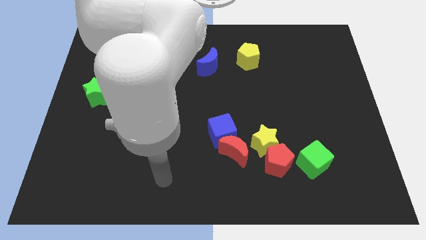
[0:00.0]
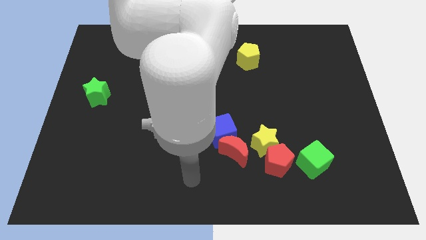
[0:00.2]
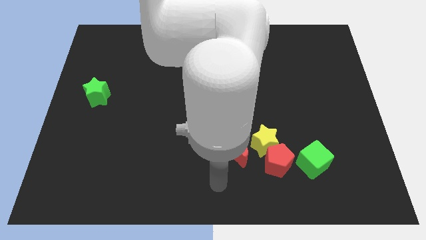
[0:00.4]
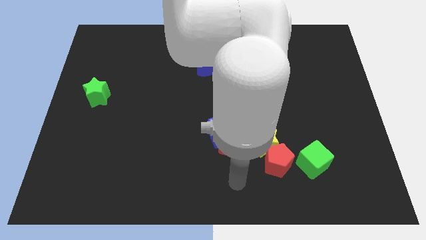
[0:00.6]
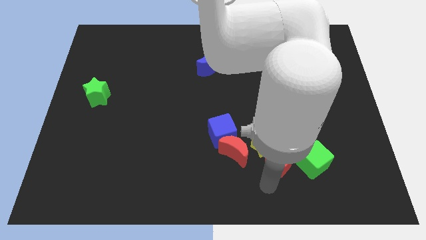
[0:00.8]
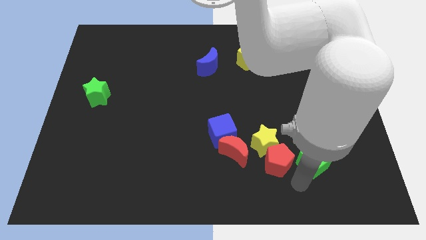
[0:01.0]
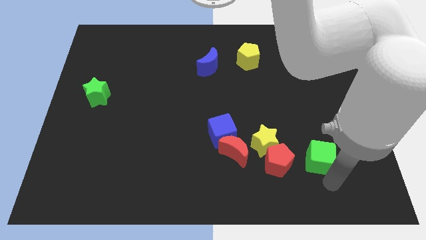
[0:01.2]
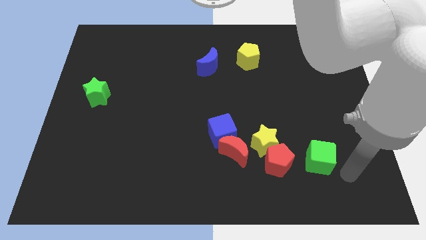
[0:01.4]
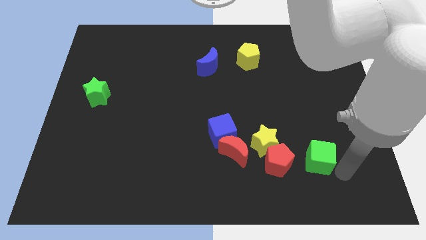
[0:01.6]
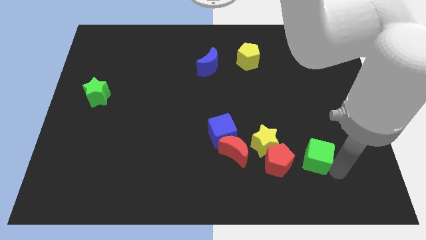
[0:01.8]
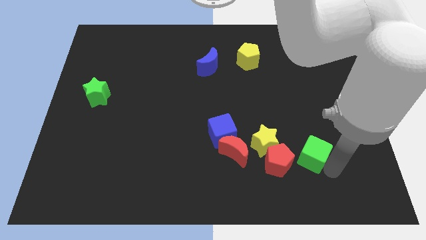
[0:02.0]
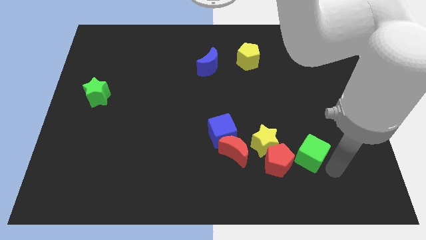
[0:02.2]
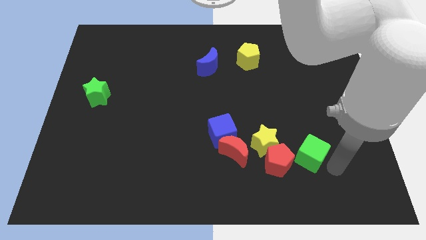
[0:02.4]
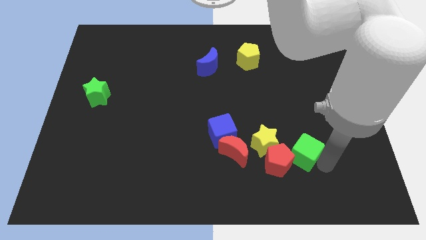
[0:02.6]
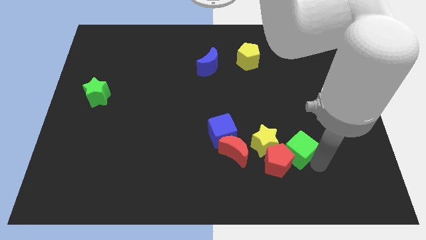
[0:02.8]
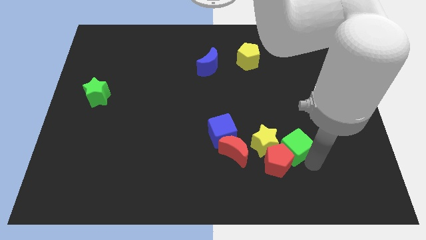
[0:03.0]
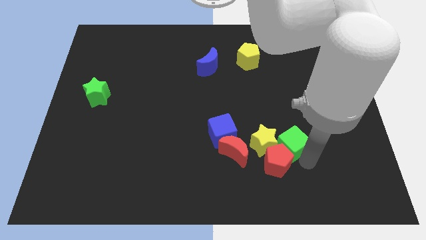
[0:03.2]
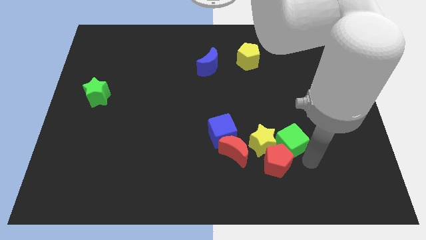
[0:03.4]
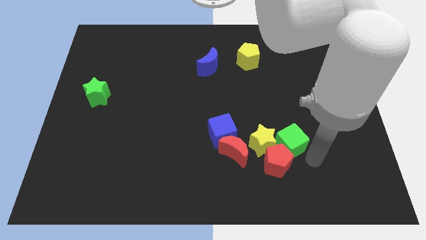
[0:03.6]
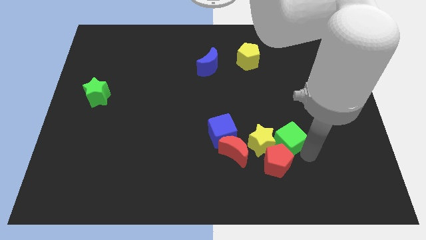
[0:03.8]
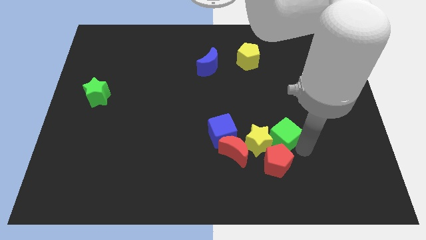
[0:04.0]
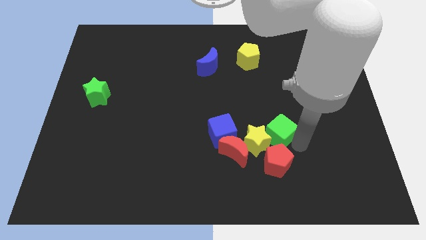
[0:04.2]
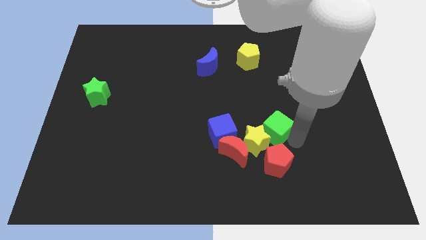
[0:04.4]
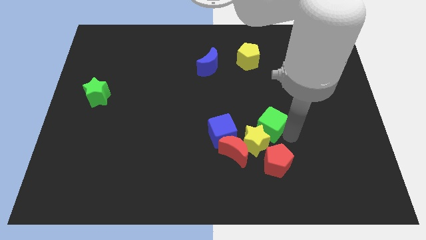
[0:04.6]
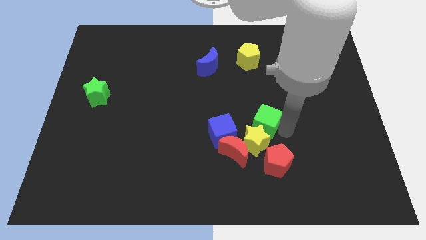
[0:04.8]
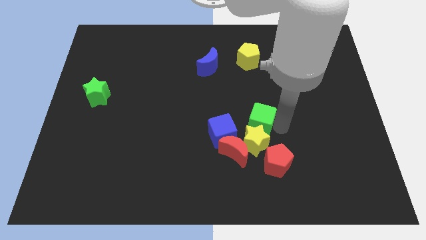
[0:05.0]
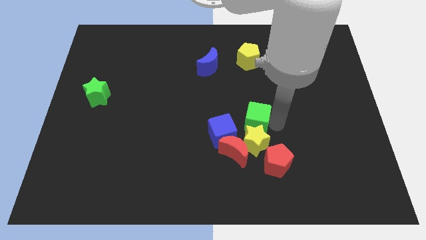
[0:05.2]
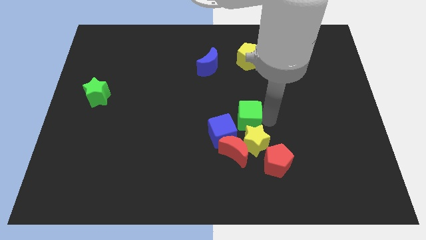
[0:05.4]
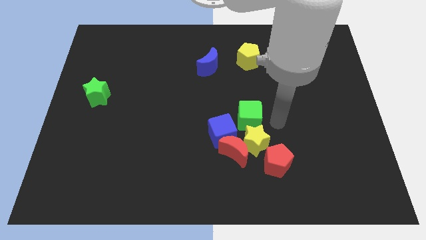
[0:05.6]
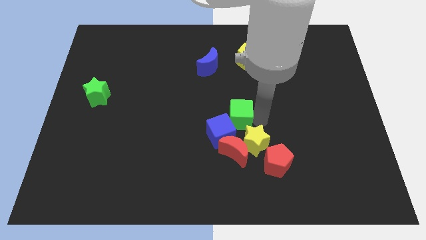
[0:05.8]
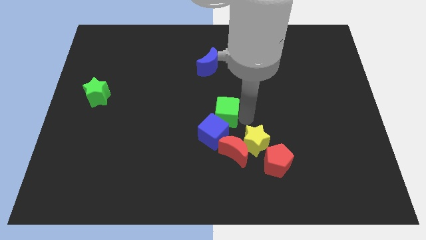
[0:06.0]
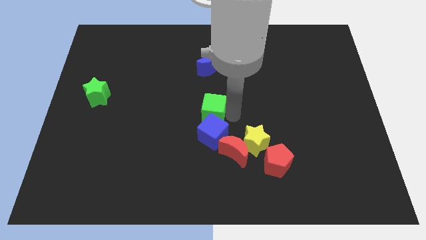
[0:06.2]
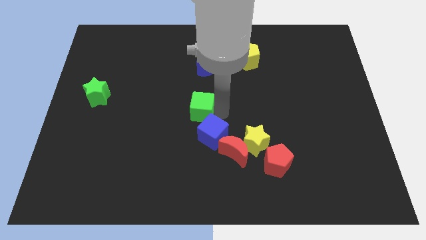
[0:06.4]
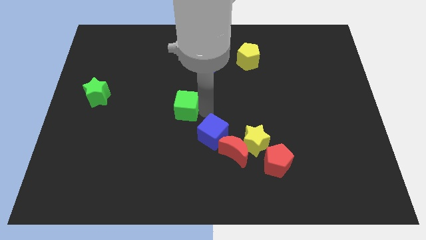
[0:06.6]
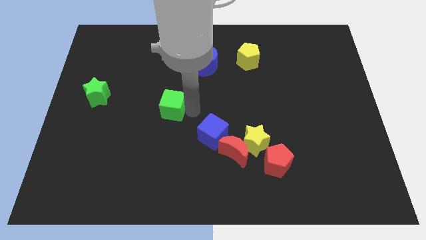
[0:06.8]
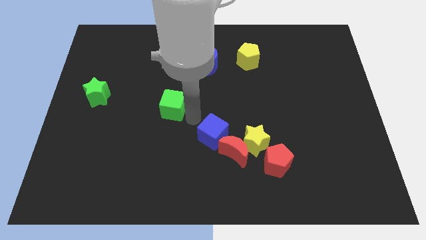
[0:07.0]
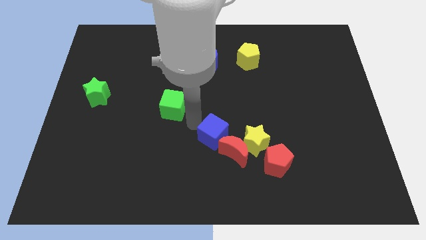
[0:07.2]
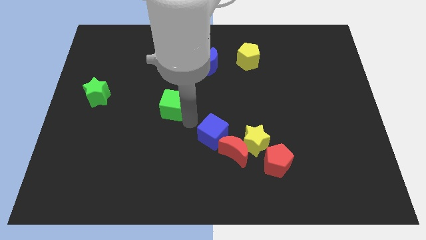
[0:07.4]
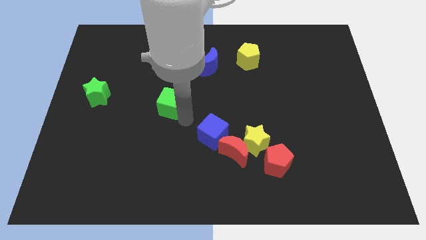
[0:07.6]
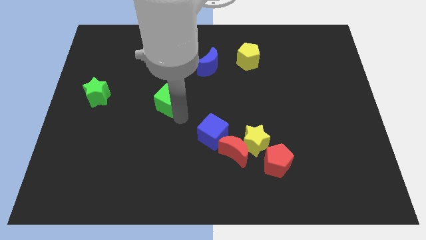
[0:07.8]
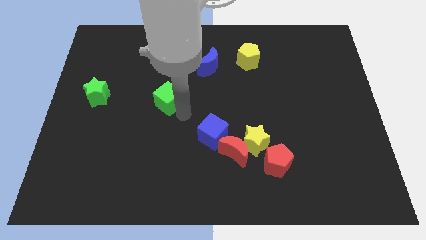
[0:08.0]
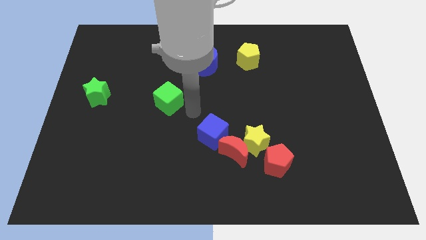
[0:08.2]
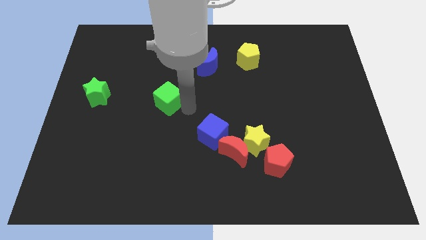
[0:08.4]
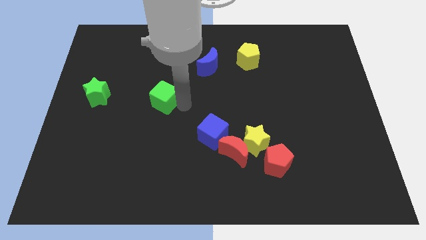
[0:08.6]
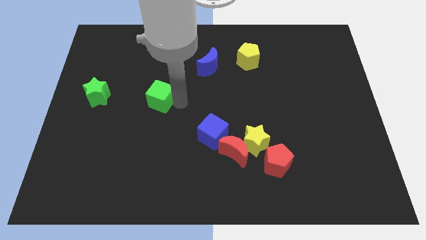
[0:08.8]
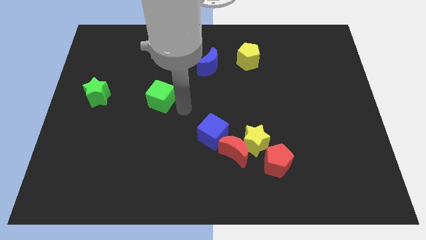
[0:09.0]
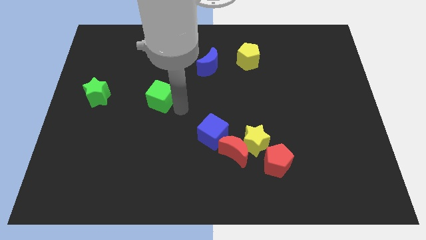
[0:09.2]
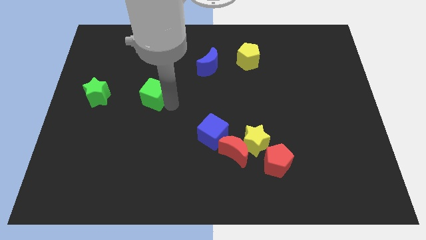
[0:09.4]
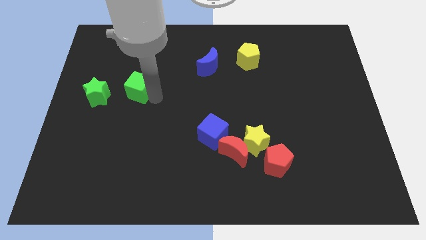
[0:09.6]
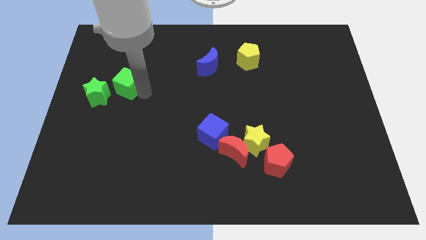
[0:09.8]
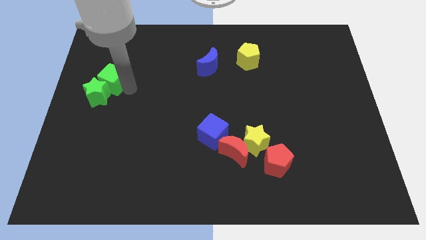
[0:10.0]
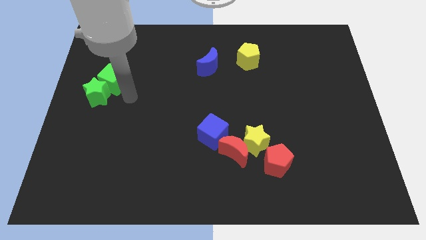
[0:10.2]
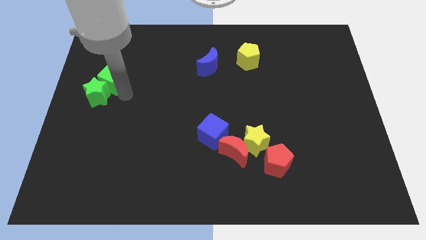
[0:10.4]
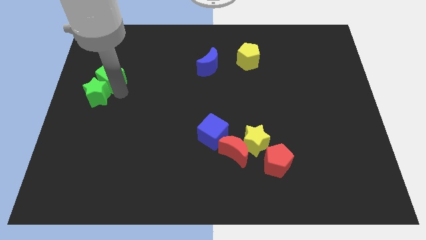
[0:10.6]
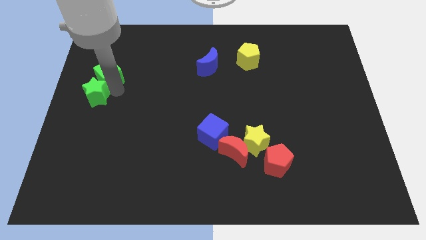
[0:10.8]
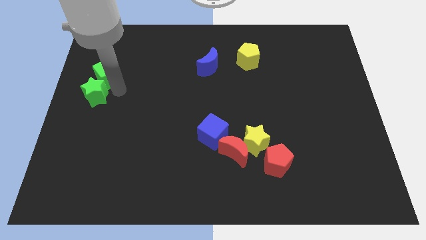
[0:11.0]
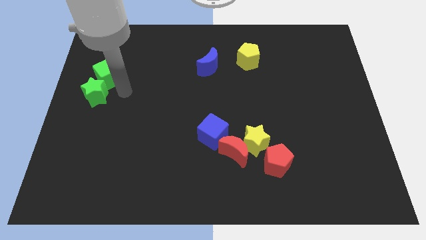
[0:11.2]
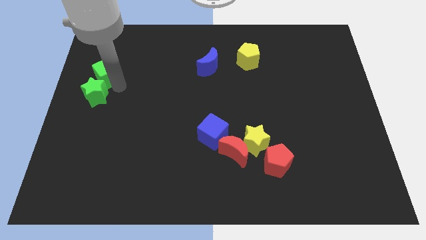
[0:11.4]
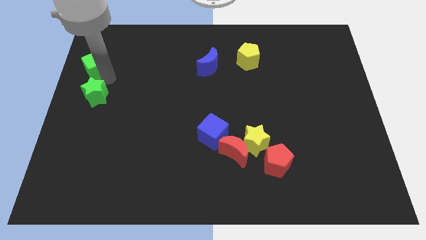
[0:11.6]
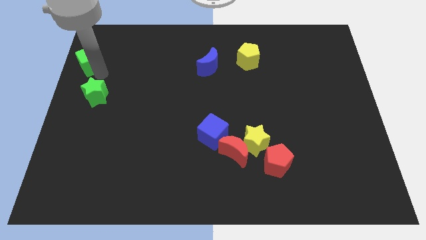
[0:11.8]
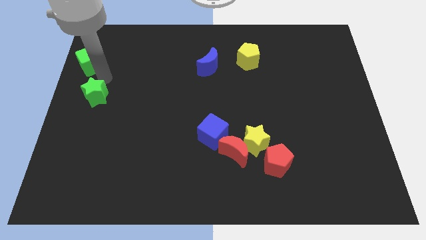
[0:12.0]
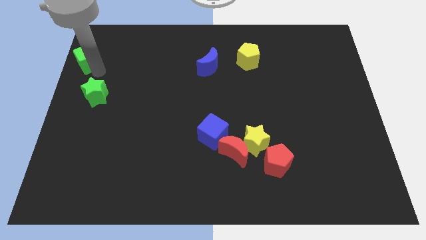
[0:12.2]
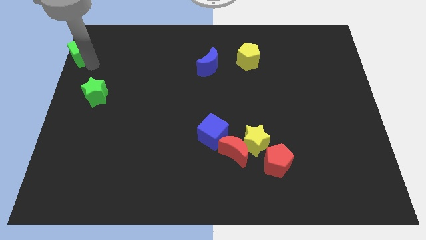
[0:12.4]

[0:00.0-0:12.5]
put the green cube to the upper left corner

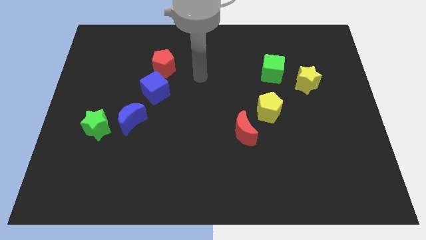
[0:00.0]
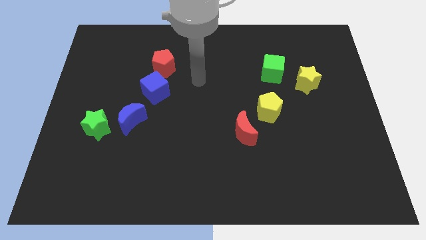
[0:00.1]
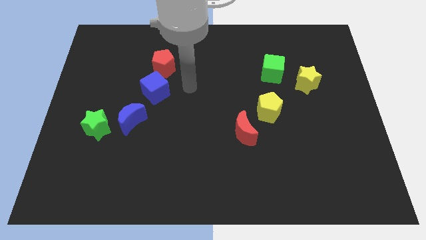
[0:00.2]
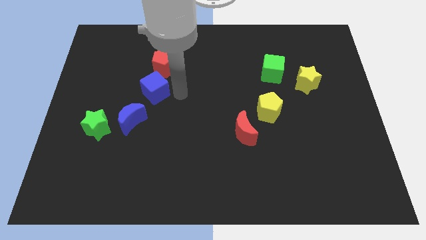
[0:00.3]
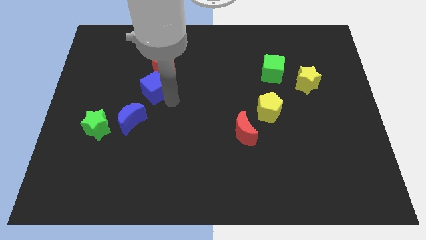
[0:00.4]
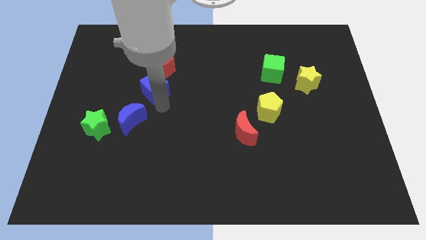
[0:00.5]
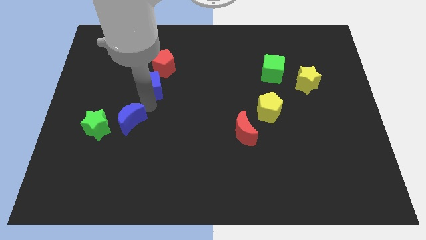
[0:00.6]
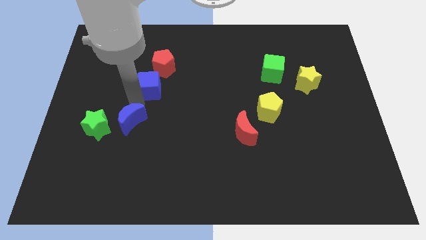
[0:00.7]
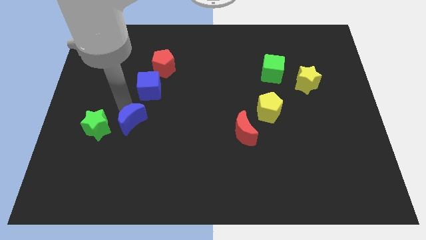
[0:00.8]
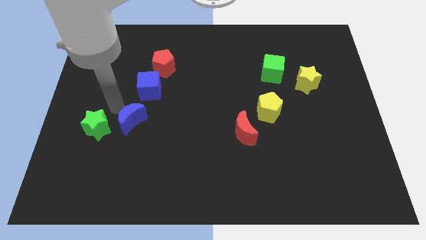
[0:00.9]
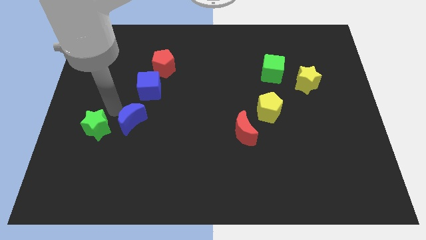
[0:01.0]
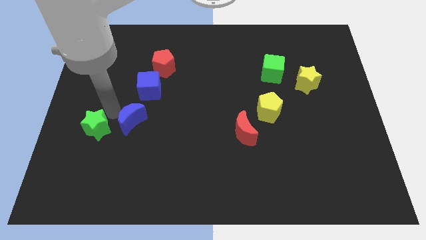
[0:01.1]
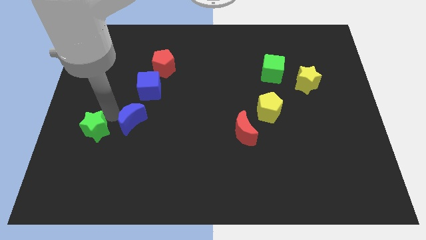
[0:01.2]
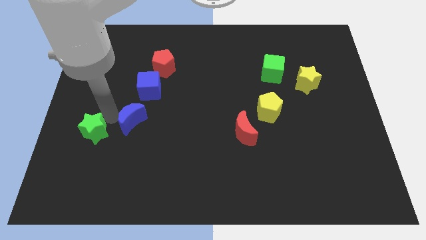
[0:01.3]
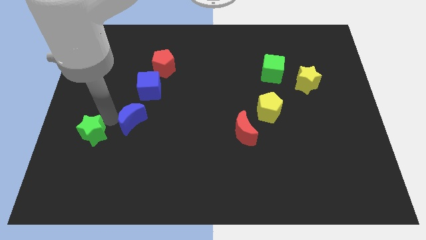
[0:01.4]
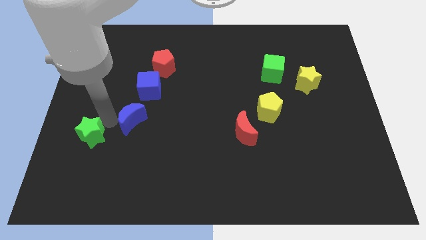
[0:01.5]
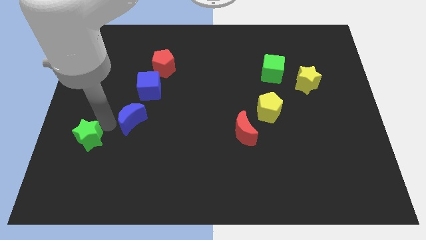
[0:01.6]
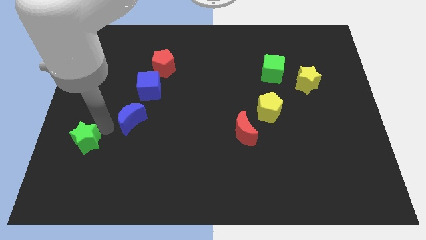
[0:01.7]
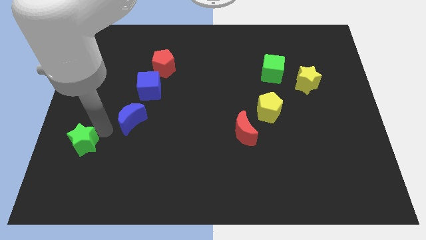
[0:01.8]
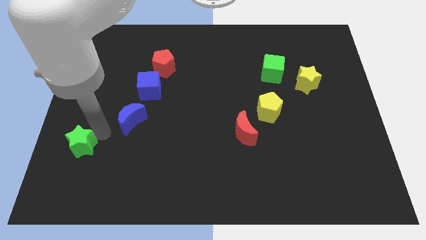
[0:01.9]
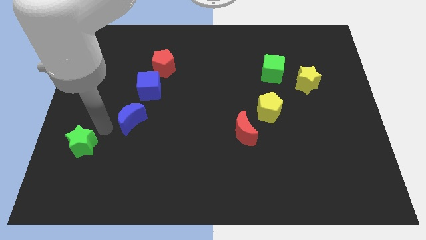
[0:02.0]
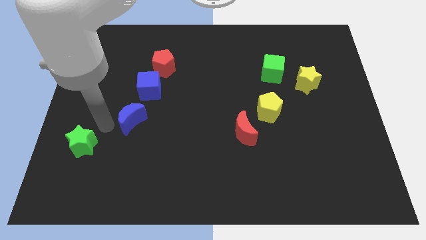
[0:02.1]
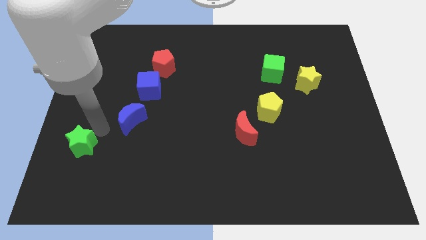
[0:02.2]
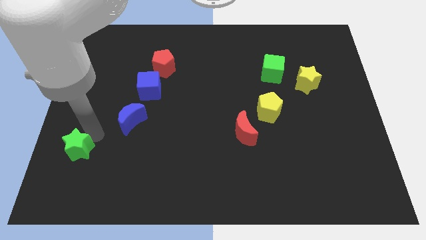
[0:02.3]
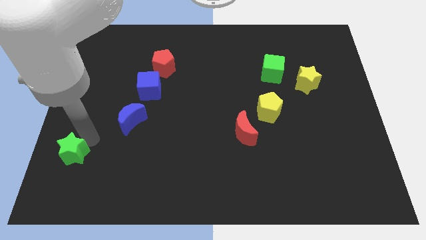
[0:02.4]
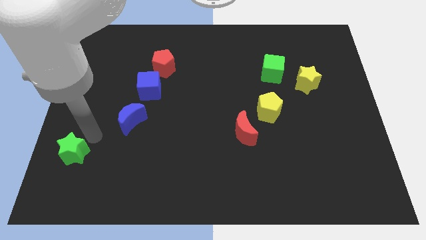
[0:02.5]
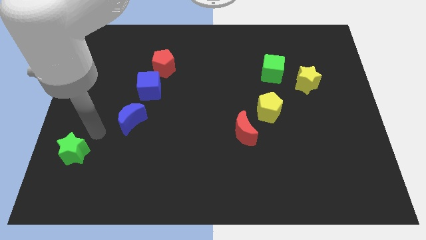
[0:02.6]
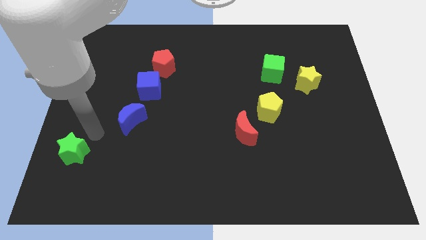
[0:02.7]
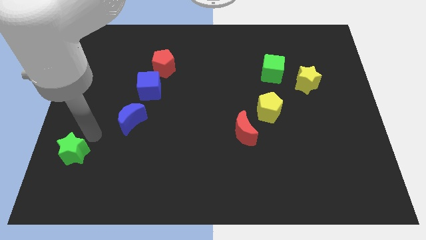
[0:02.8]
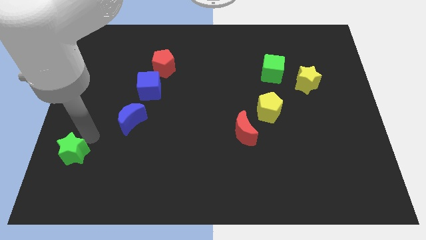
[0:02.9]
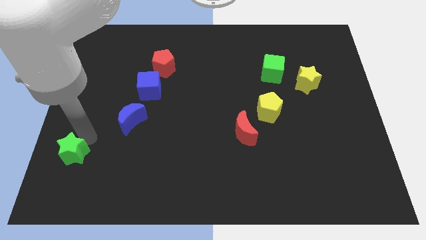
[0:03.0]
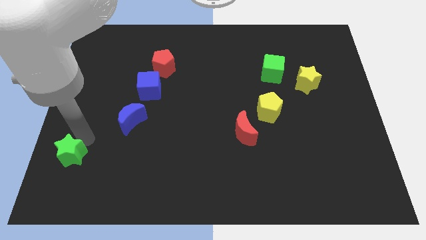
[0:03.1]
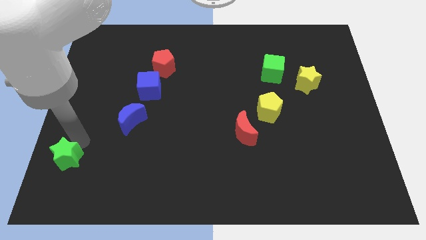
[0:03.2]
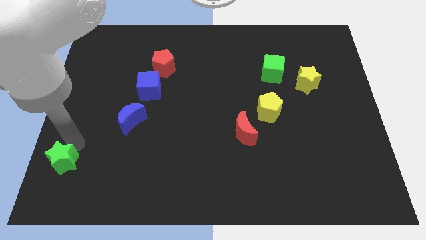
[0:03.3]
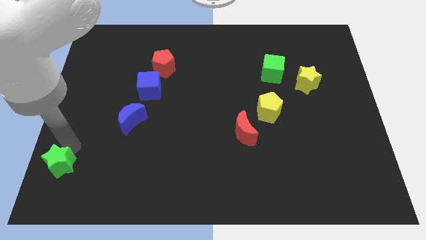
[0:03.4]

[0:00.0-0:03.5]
push the green star to the bottom left
